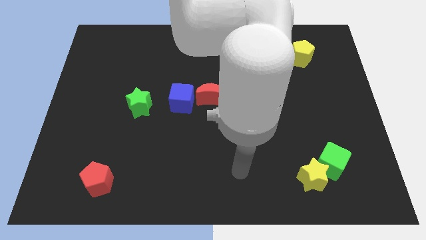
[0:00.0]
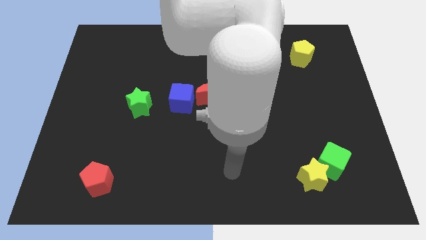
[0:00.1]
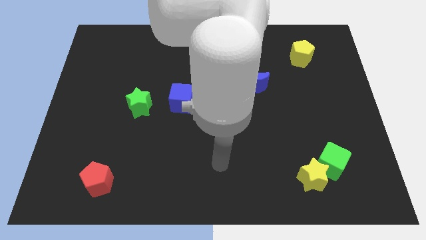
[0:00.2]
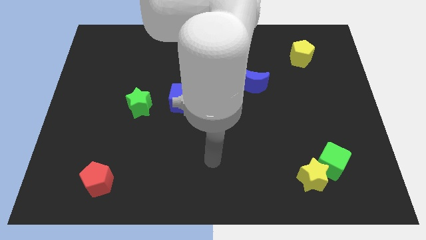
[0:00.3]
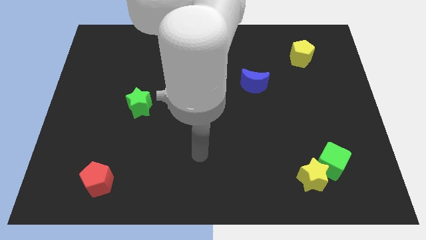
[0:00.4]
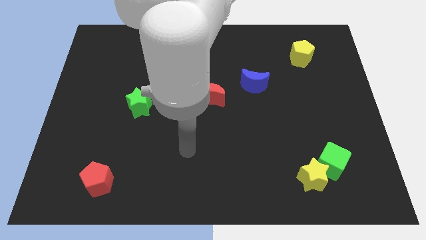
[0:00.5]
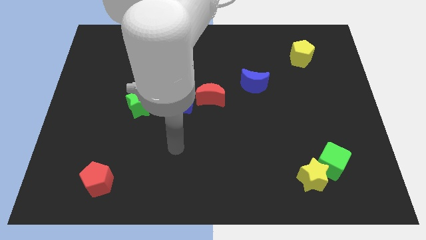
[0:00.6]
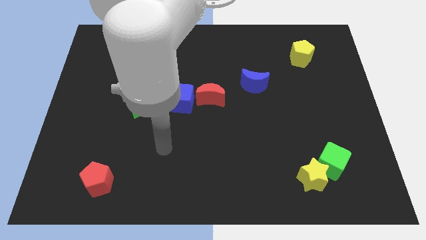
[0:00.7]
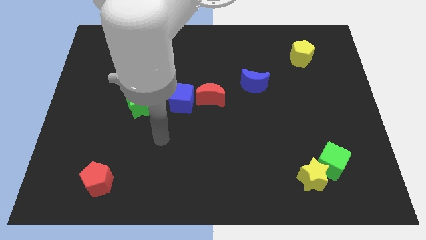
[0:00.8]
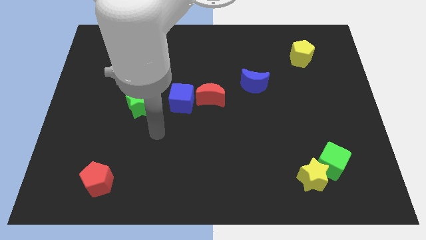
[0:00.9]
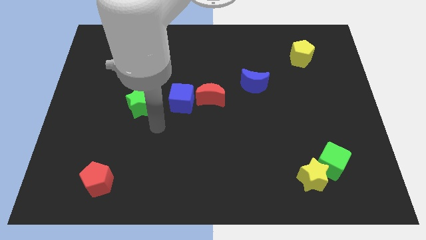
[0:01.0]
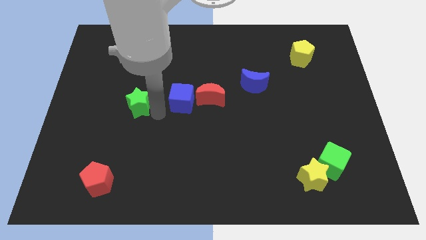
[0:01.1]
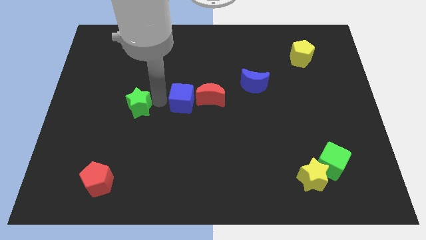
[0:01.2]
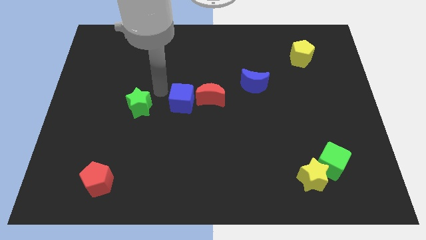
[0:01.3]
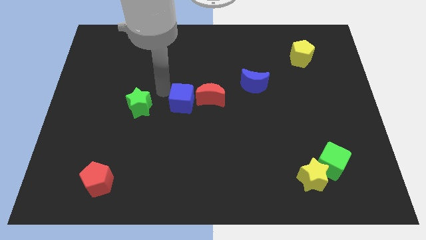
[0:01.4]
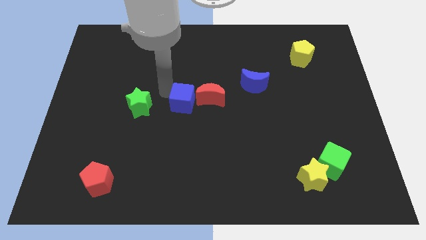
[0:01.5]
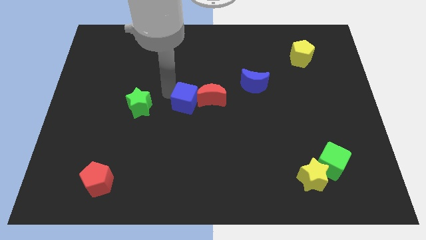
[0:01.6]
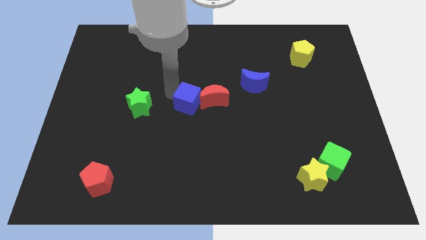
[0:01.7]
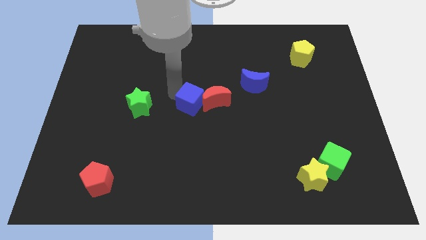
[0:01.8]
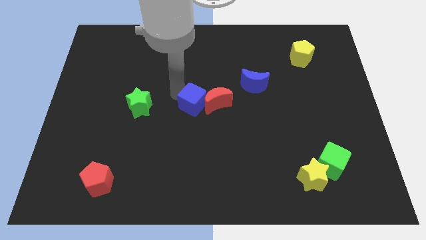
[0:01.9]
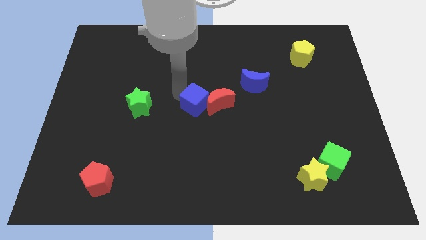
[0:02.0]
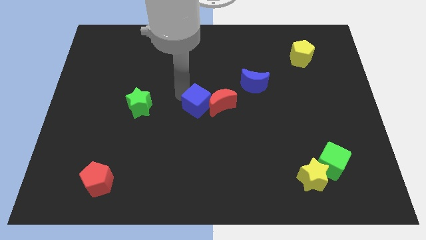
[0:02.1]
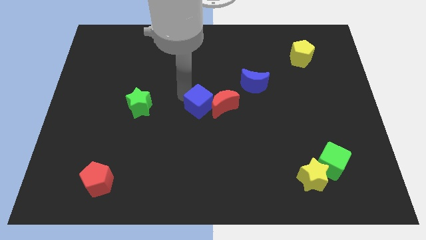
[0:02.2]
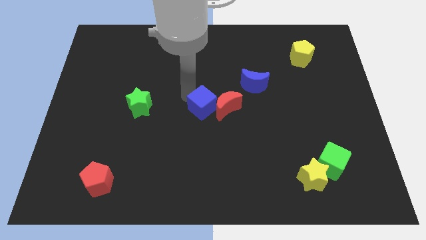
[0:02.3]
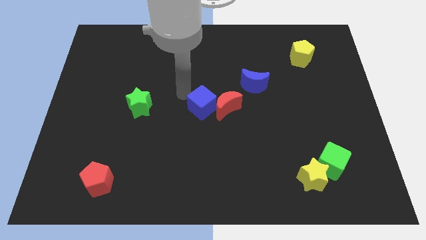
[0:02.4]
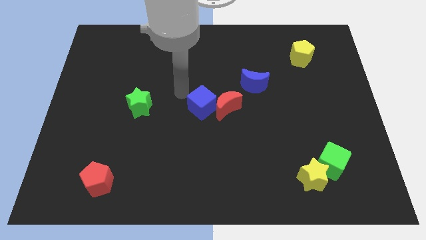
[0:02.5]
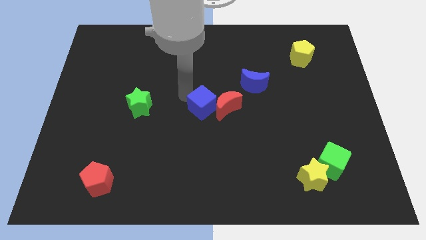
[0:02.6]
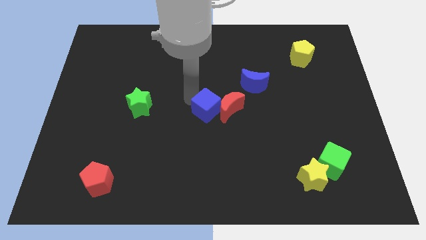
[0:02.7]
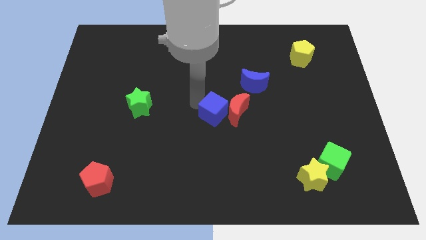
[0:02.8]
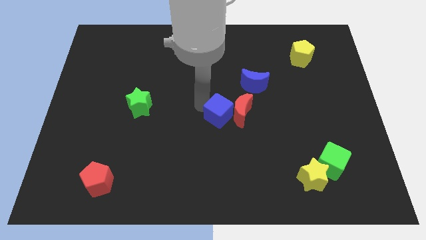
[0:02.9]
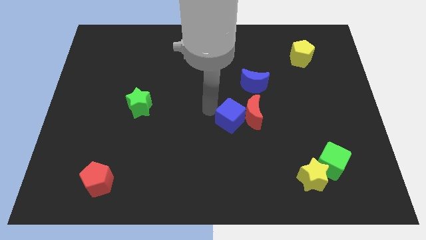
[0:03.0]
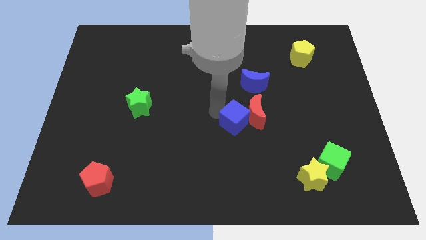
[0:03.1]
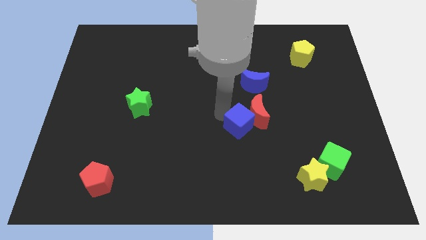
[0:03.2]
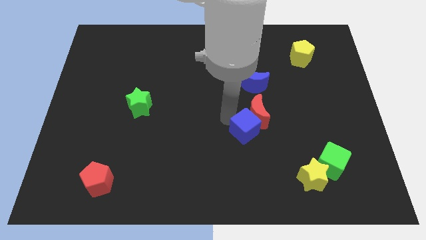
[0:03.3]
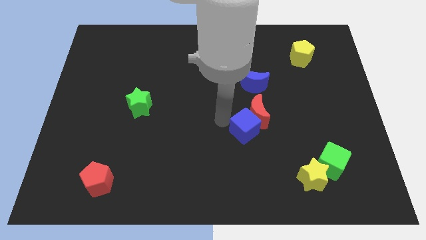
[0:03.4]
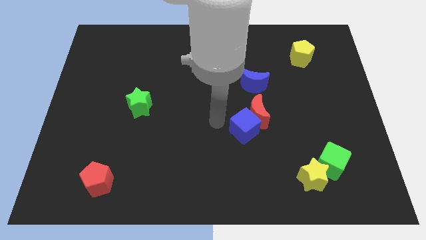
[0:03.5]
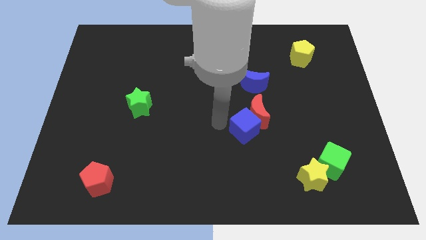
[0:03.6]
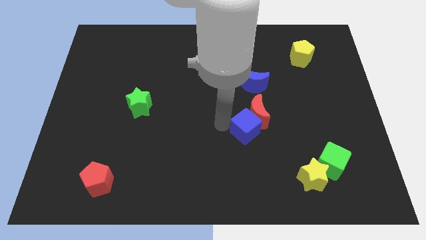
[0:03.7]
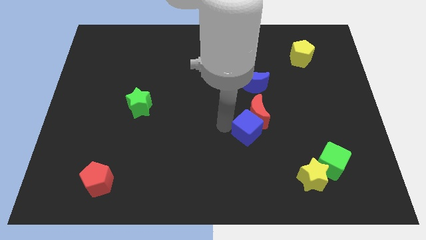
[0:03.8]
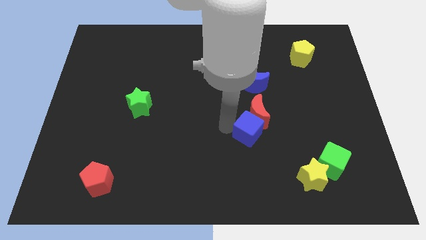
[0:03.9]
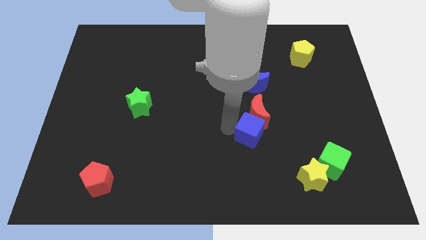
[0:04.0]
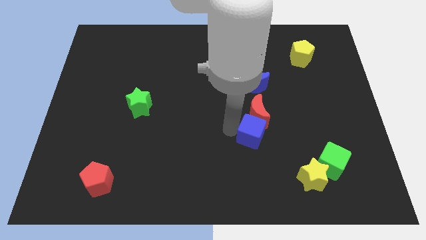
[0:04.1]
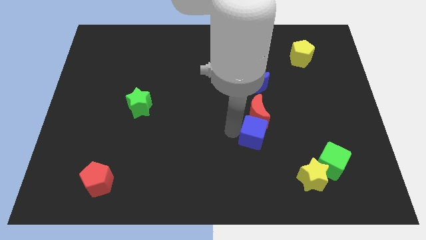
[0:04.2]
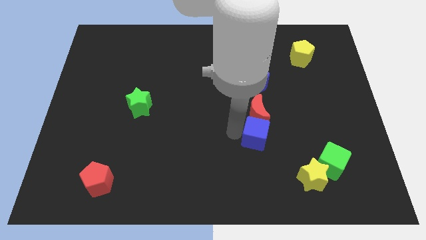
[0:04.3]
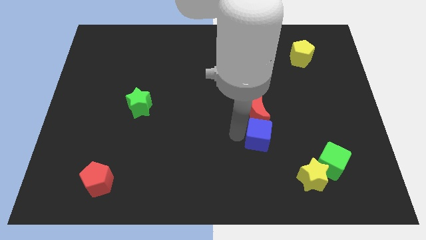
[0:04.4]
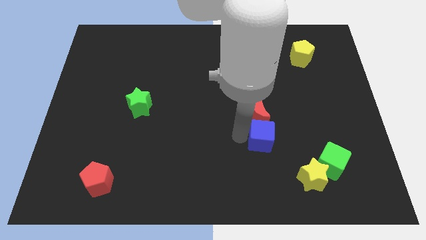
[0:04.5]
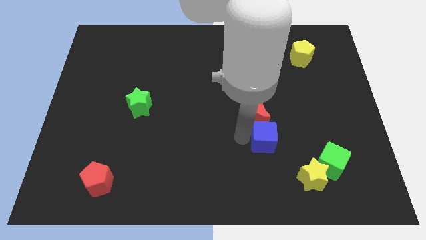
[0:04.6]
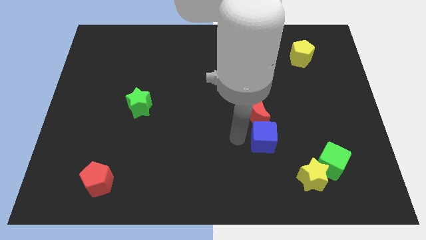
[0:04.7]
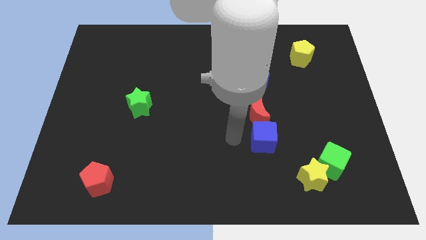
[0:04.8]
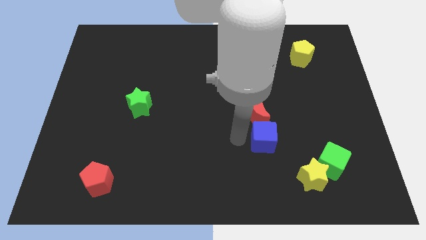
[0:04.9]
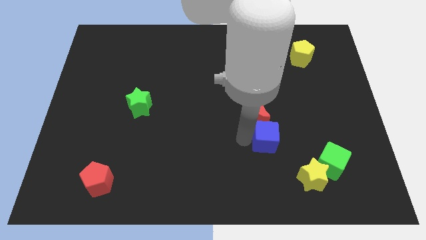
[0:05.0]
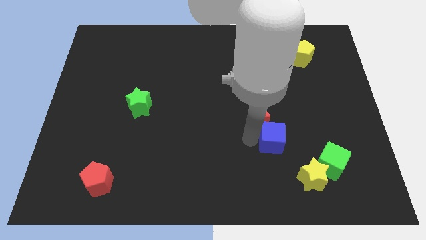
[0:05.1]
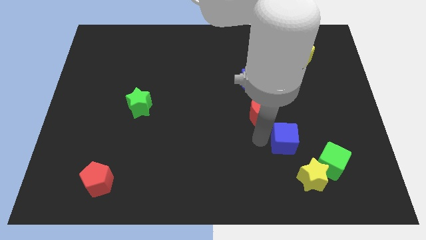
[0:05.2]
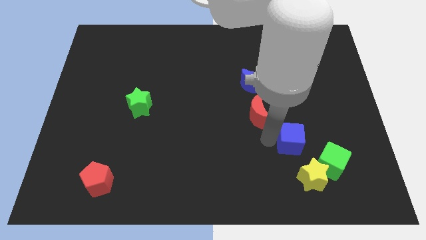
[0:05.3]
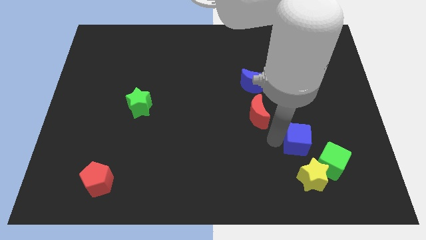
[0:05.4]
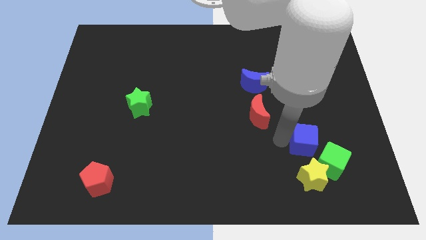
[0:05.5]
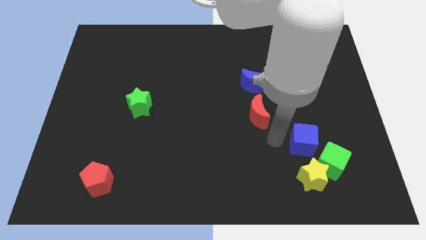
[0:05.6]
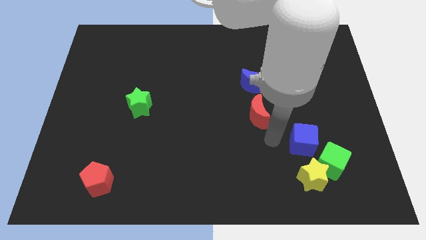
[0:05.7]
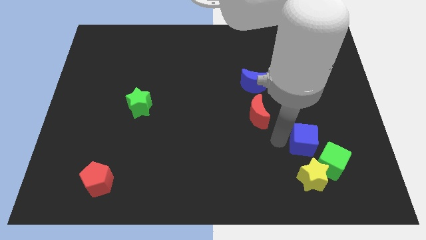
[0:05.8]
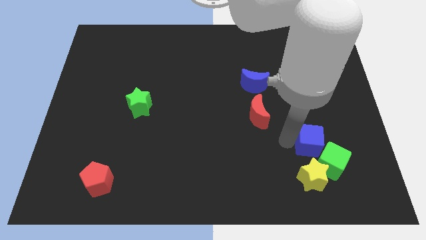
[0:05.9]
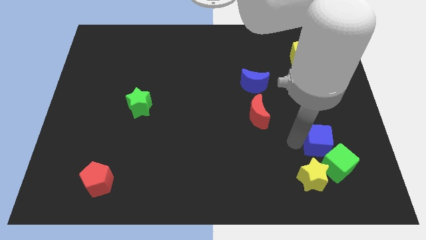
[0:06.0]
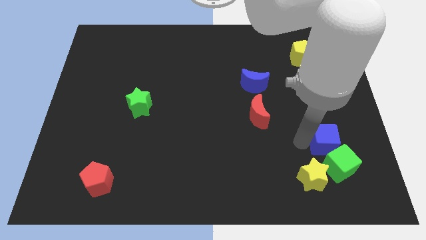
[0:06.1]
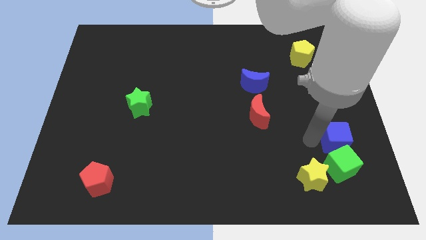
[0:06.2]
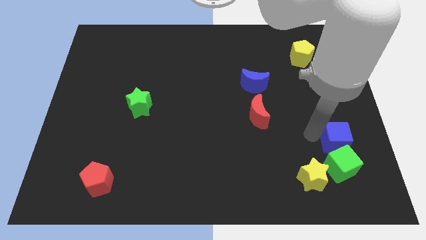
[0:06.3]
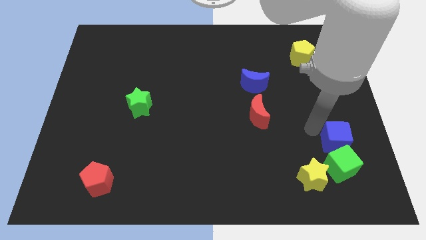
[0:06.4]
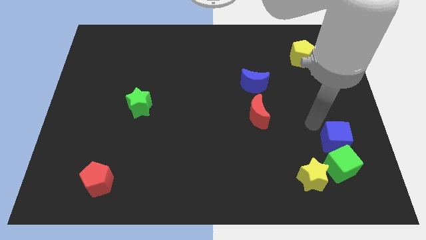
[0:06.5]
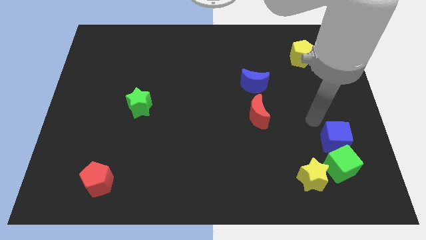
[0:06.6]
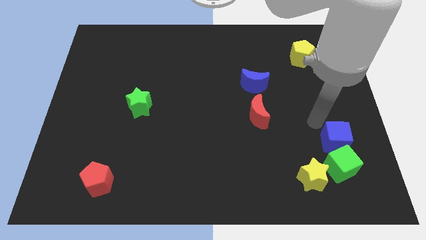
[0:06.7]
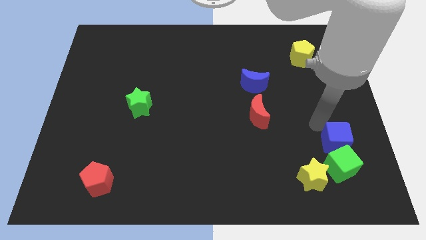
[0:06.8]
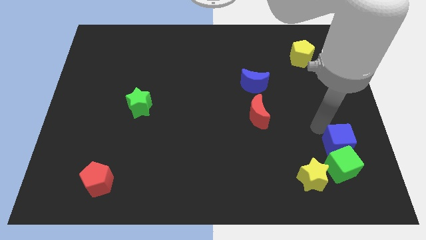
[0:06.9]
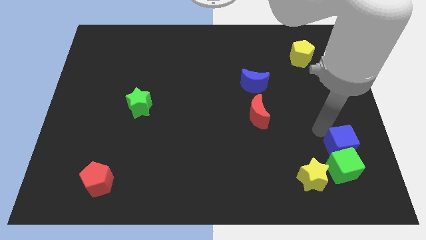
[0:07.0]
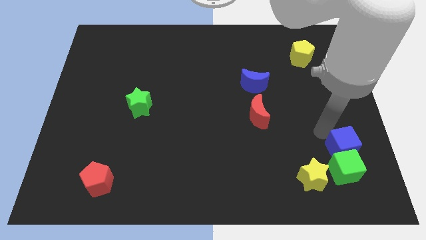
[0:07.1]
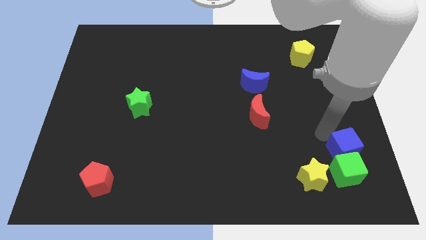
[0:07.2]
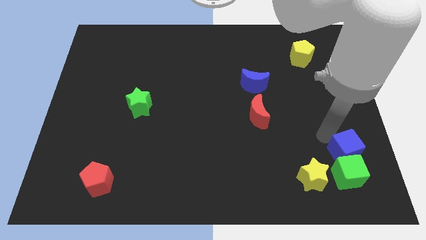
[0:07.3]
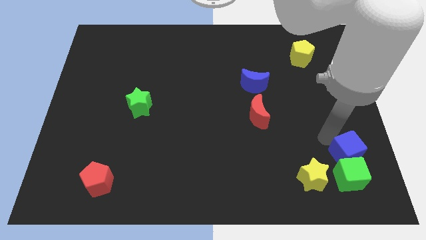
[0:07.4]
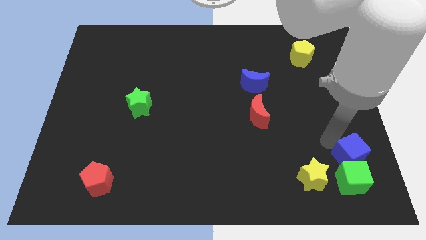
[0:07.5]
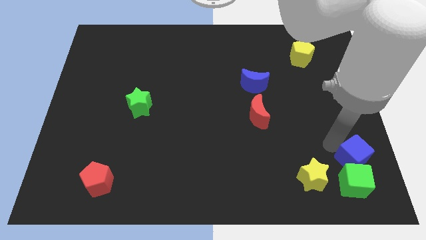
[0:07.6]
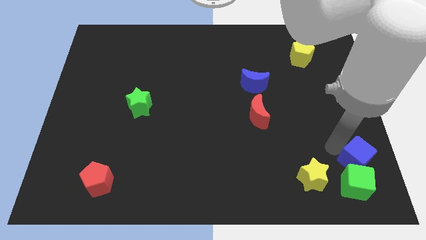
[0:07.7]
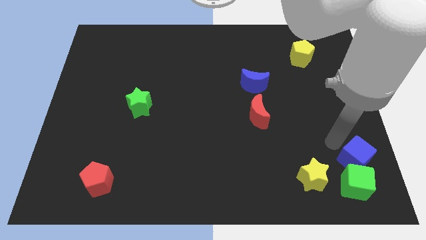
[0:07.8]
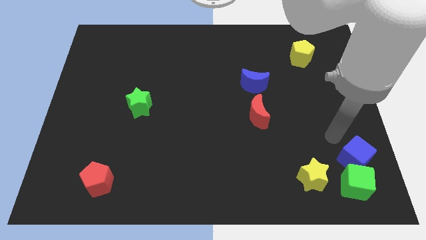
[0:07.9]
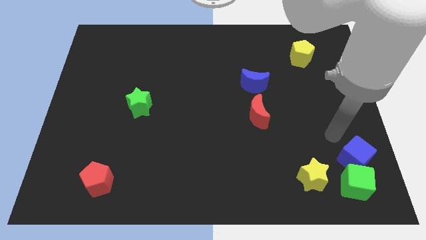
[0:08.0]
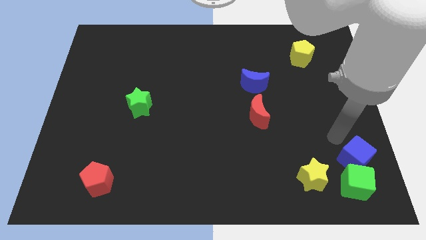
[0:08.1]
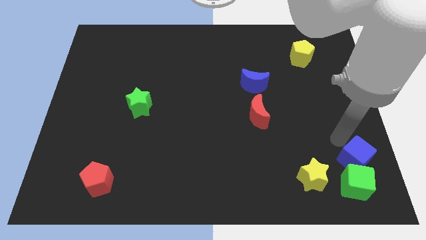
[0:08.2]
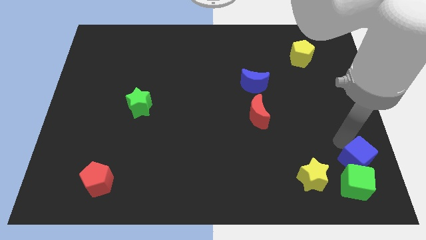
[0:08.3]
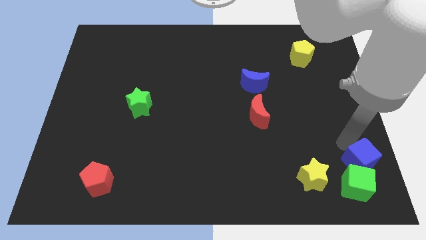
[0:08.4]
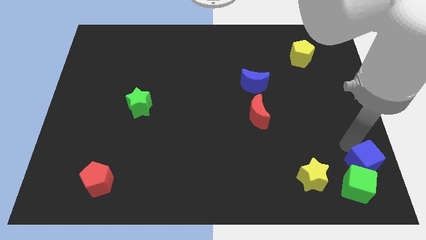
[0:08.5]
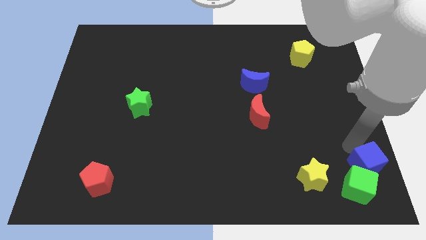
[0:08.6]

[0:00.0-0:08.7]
put the blue cube to the lower right corner
